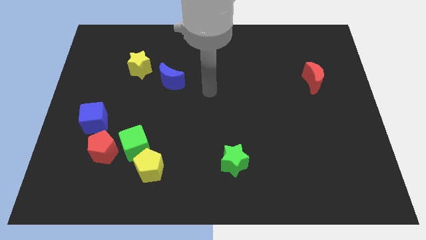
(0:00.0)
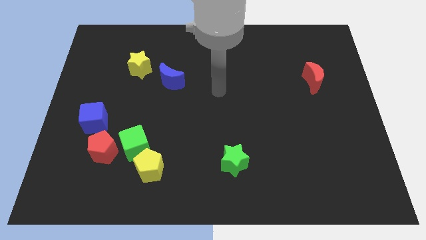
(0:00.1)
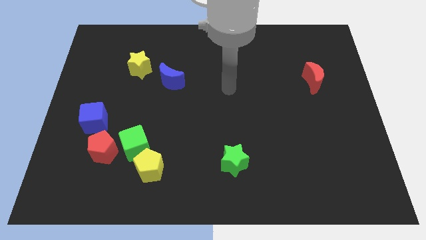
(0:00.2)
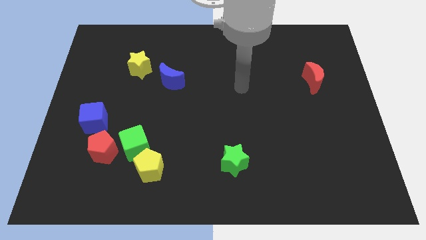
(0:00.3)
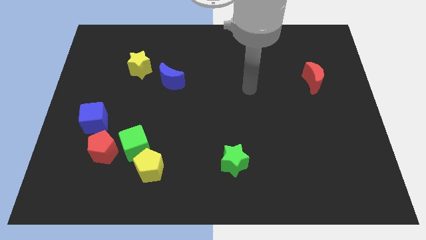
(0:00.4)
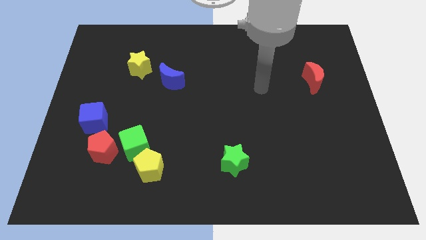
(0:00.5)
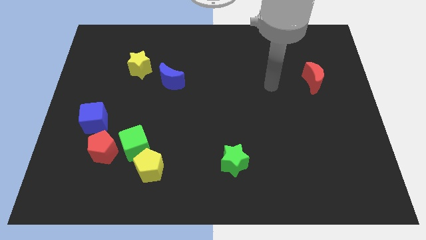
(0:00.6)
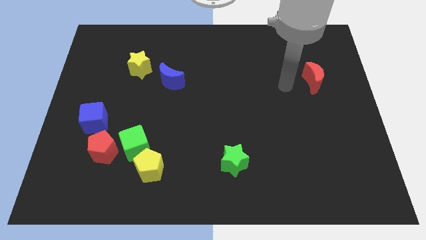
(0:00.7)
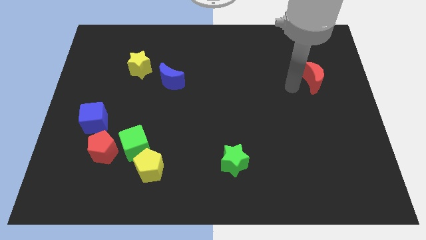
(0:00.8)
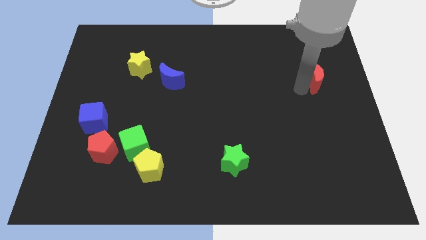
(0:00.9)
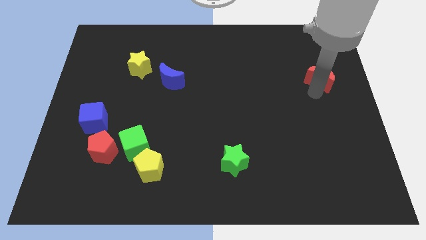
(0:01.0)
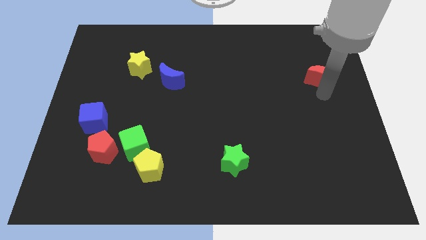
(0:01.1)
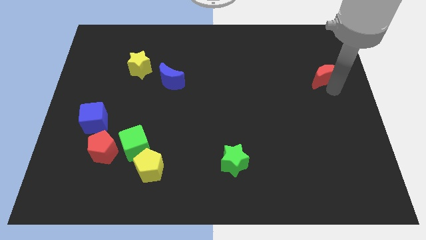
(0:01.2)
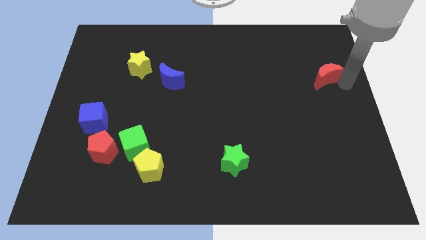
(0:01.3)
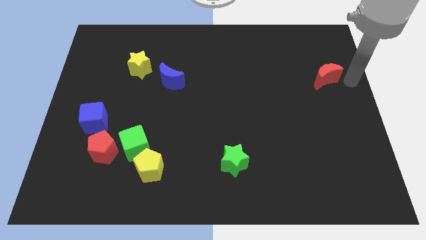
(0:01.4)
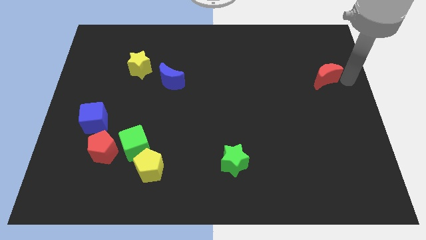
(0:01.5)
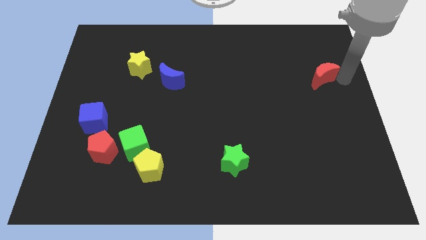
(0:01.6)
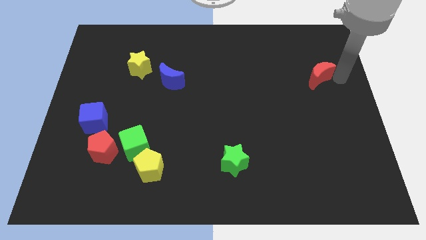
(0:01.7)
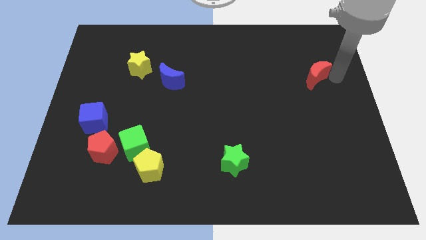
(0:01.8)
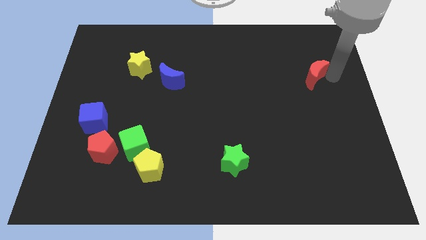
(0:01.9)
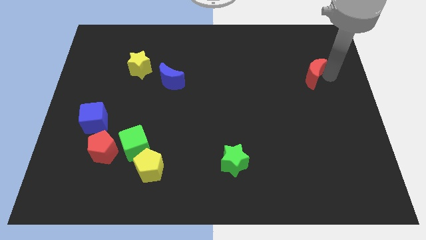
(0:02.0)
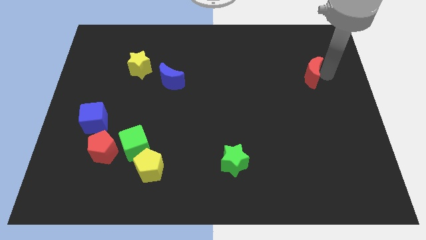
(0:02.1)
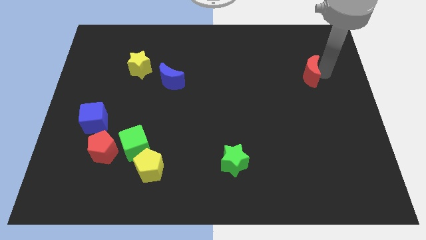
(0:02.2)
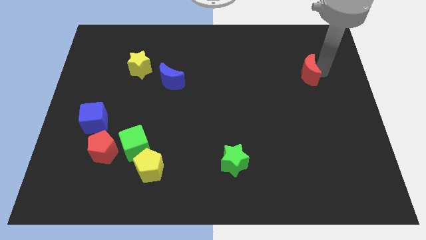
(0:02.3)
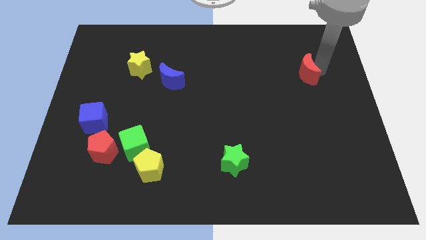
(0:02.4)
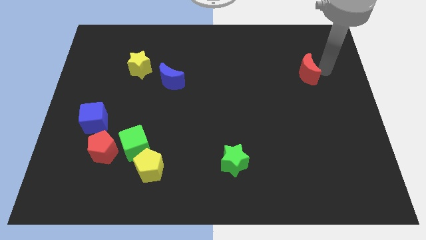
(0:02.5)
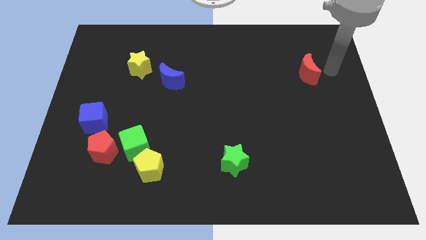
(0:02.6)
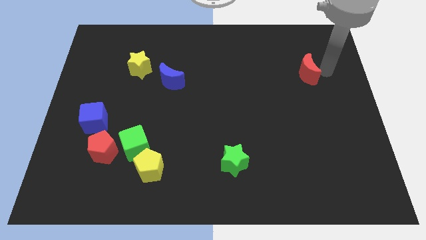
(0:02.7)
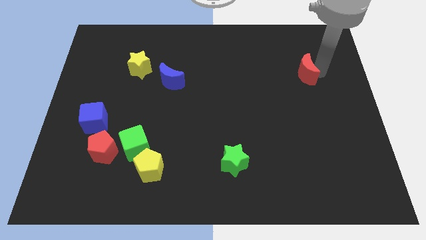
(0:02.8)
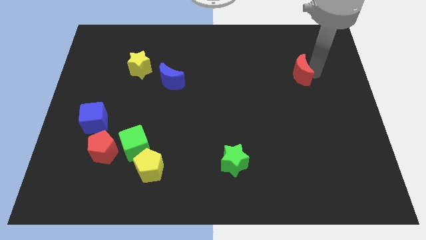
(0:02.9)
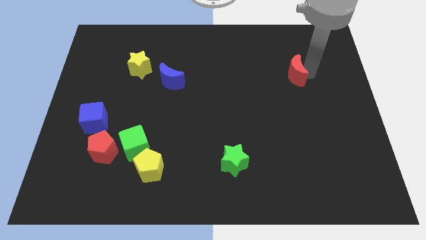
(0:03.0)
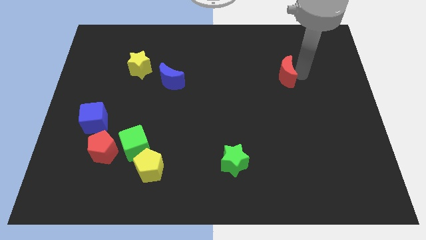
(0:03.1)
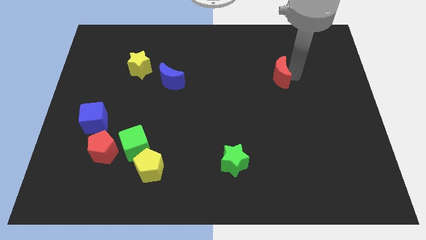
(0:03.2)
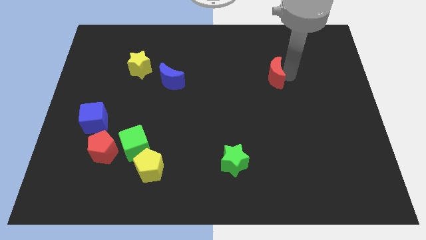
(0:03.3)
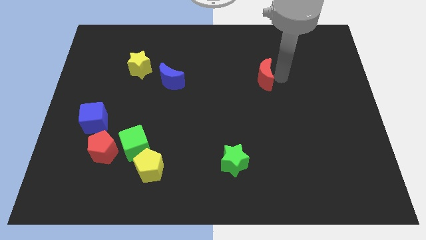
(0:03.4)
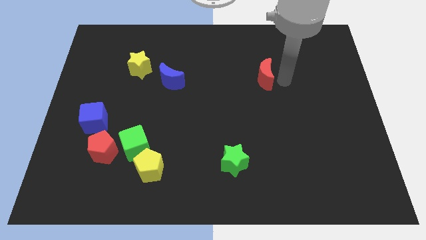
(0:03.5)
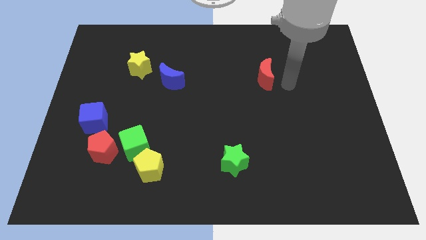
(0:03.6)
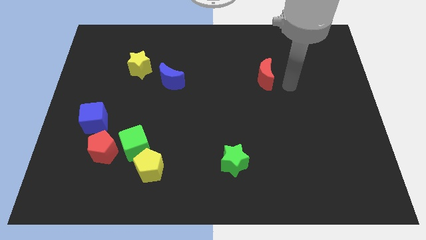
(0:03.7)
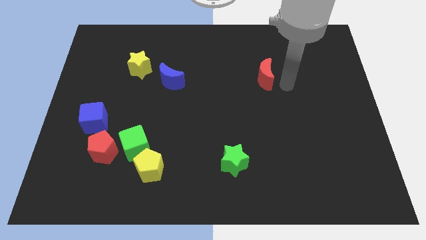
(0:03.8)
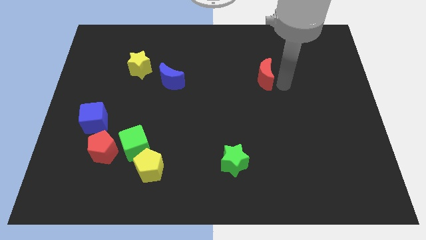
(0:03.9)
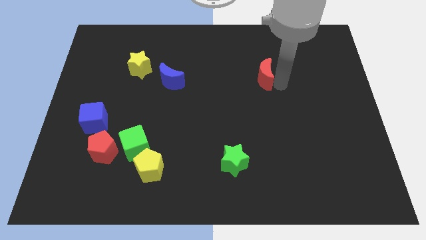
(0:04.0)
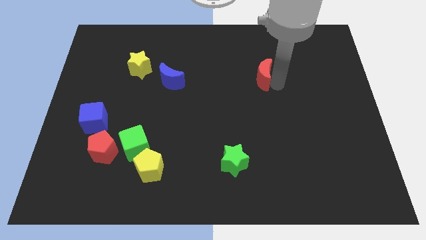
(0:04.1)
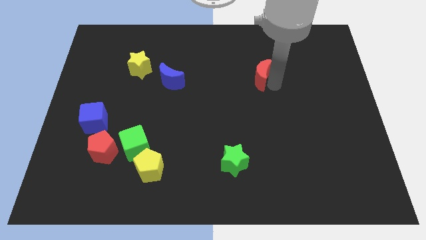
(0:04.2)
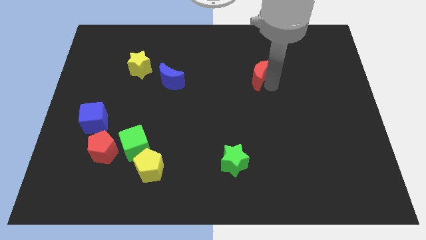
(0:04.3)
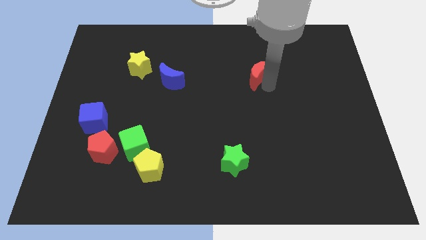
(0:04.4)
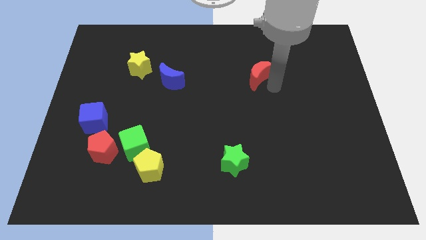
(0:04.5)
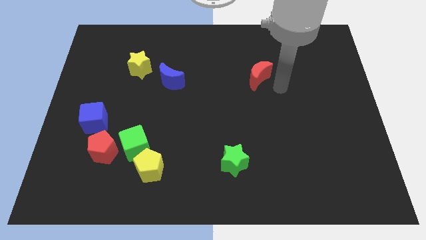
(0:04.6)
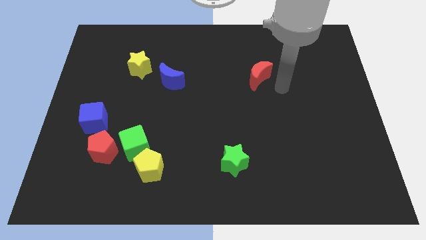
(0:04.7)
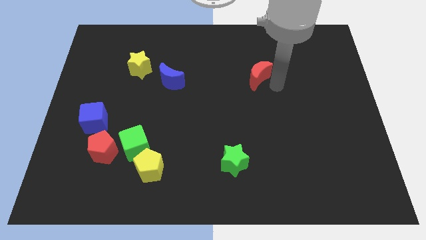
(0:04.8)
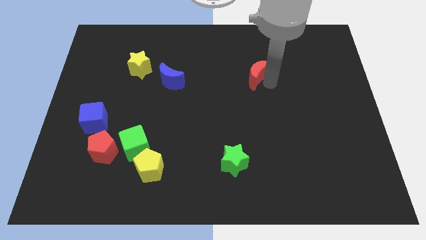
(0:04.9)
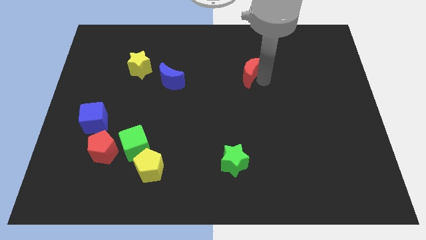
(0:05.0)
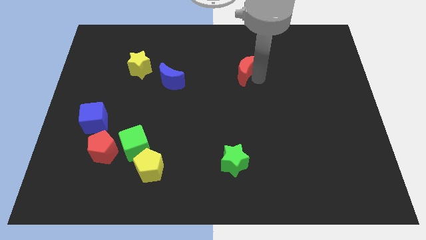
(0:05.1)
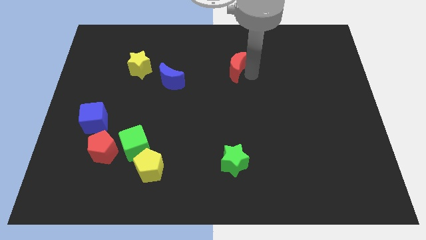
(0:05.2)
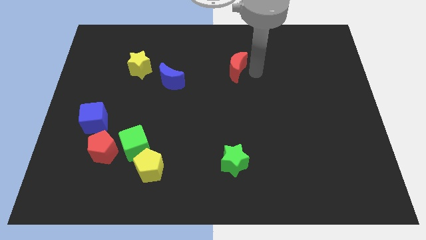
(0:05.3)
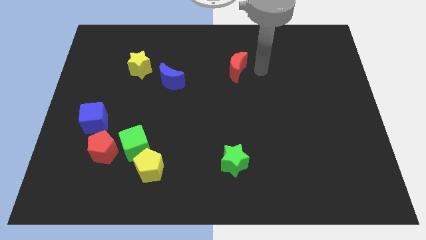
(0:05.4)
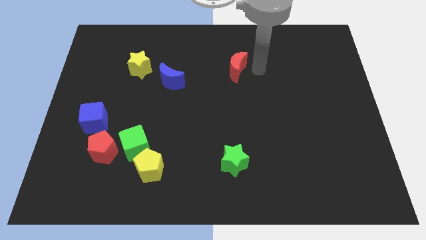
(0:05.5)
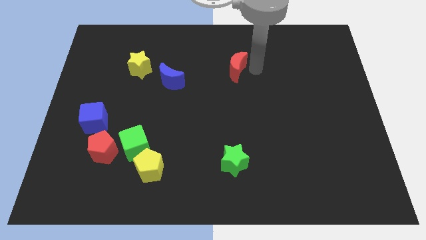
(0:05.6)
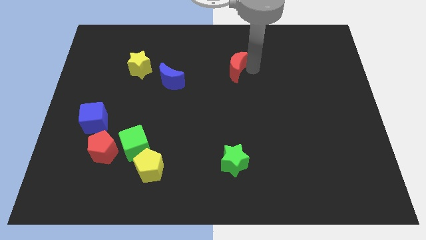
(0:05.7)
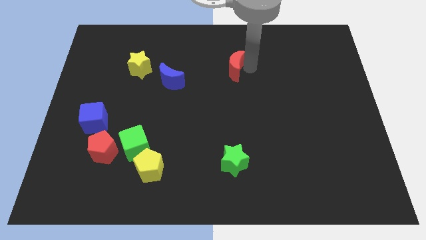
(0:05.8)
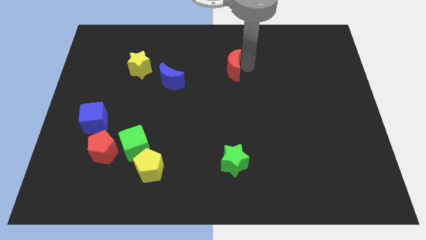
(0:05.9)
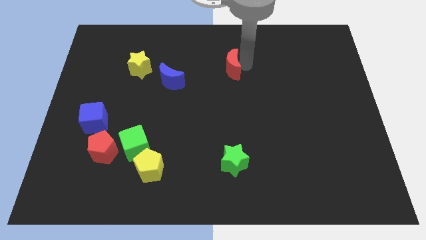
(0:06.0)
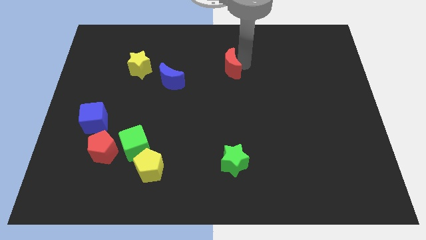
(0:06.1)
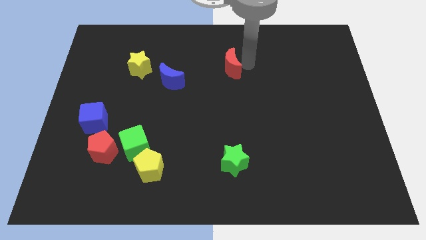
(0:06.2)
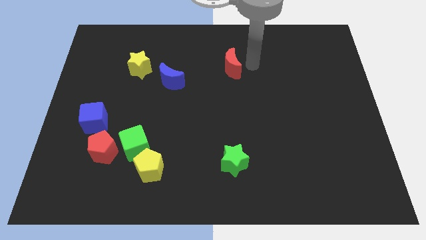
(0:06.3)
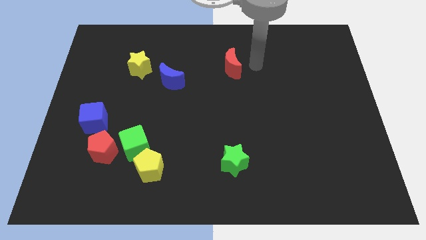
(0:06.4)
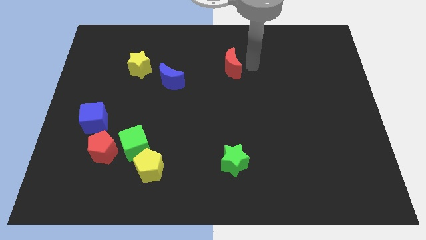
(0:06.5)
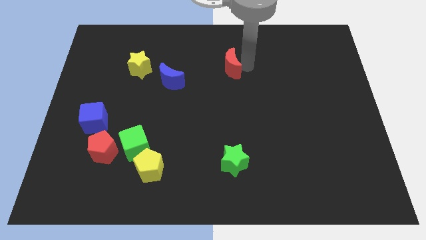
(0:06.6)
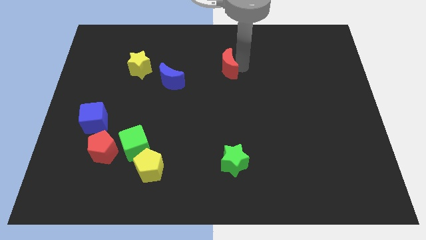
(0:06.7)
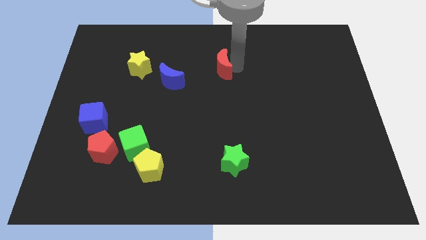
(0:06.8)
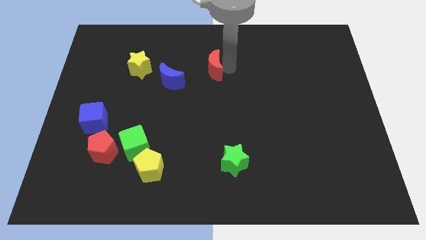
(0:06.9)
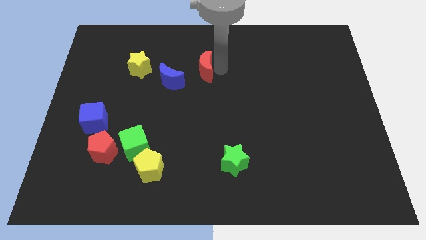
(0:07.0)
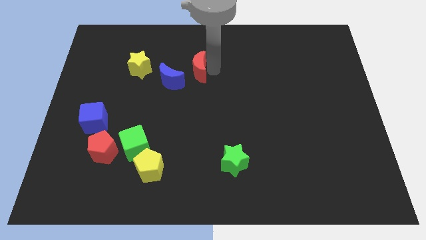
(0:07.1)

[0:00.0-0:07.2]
slide the red moon right of the yellow star
